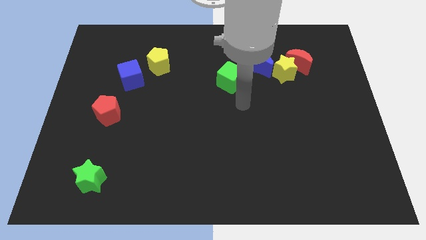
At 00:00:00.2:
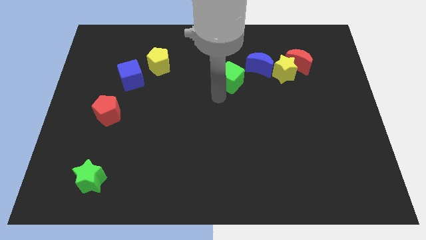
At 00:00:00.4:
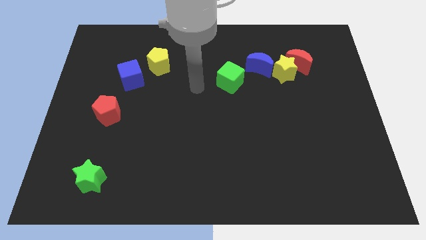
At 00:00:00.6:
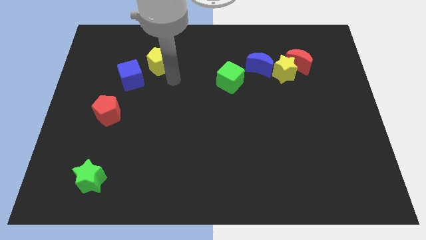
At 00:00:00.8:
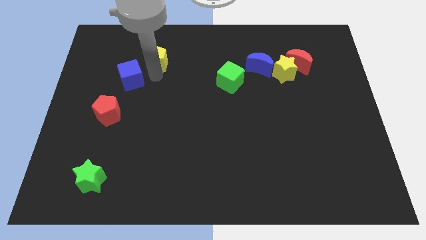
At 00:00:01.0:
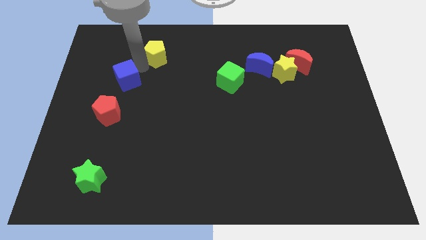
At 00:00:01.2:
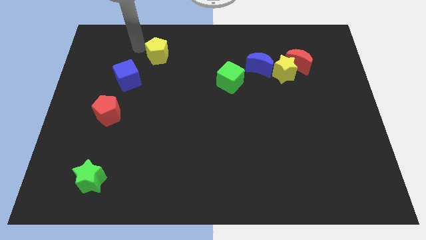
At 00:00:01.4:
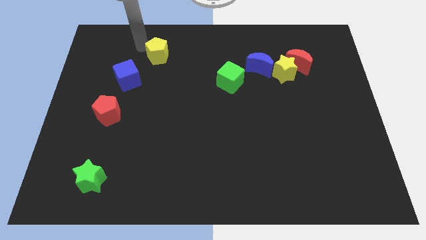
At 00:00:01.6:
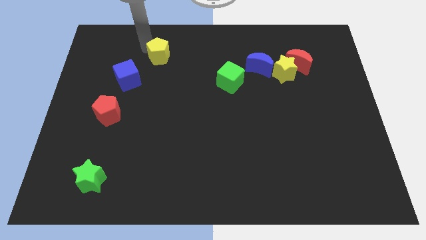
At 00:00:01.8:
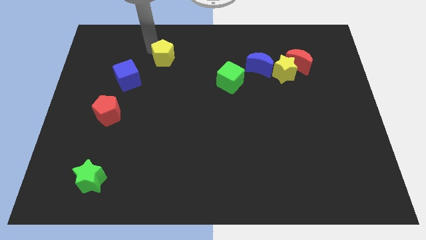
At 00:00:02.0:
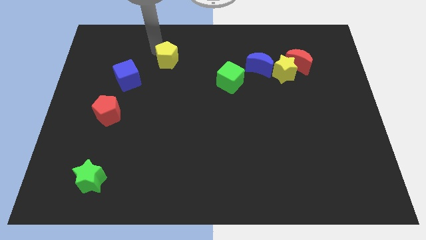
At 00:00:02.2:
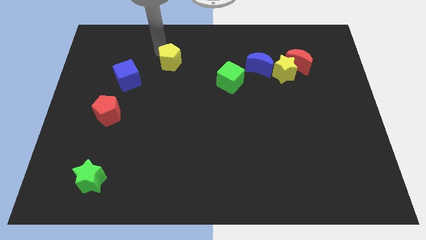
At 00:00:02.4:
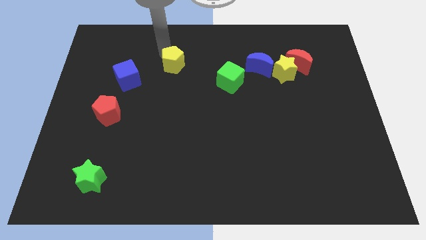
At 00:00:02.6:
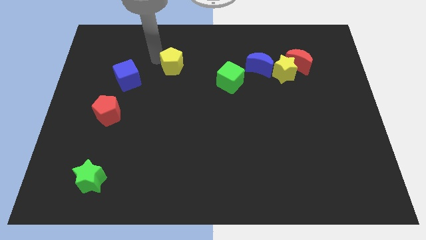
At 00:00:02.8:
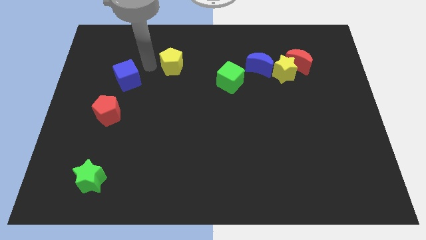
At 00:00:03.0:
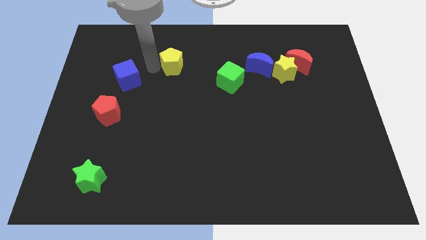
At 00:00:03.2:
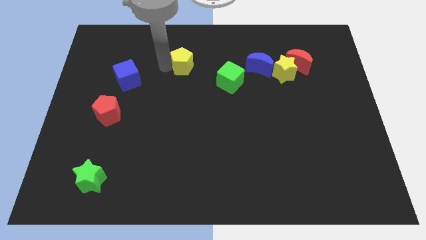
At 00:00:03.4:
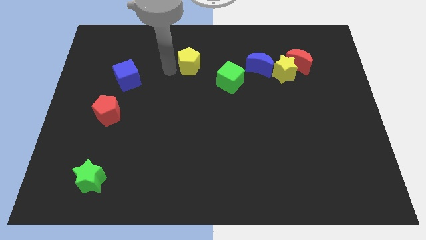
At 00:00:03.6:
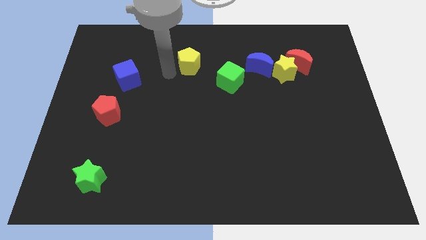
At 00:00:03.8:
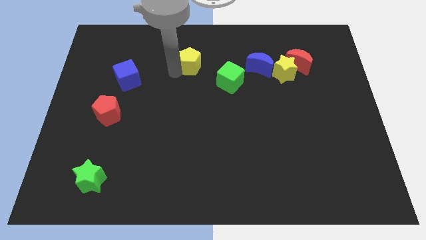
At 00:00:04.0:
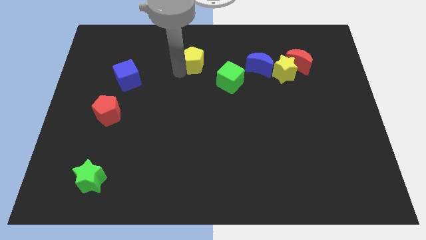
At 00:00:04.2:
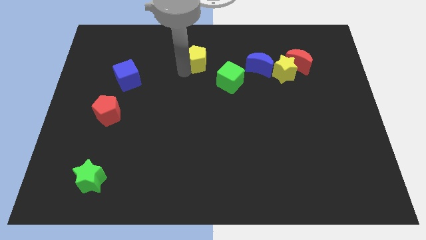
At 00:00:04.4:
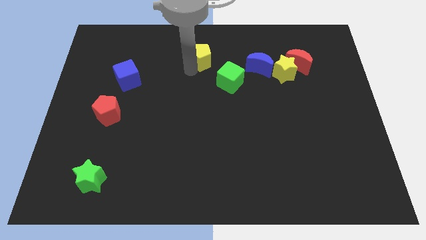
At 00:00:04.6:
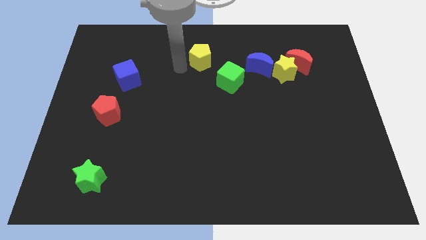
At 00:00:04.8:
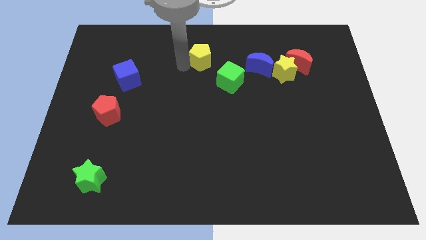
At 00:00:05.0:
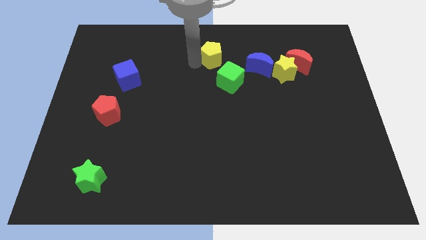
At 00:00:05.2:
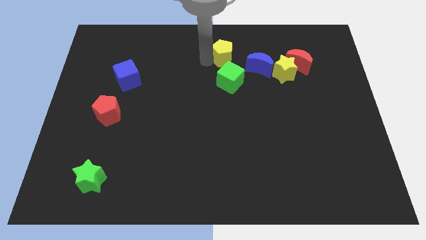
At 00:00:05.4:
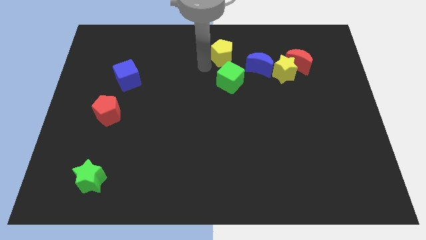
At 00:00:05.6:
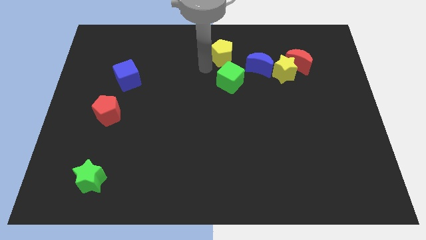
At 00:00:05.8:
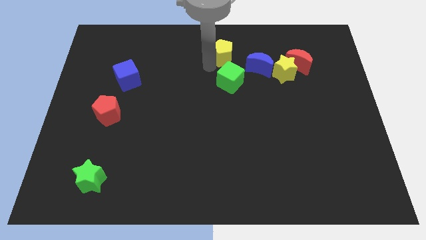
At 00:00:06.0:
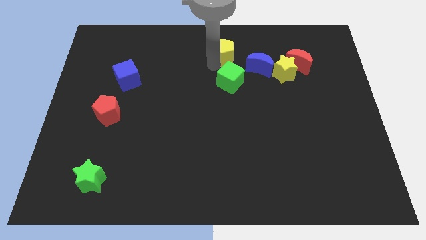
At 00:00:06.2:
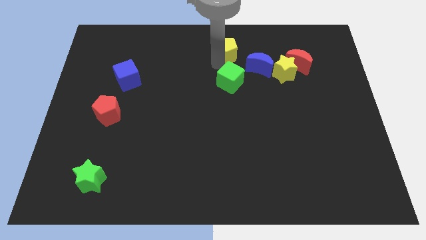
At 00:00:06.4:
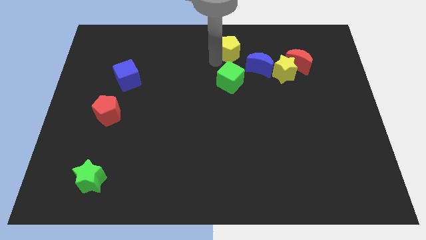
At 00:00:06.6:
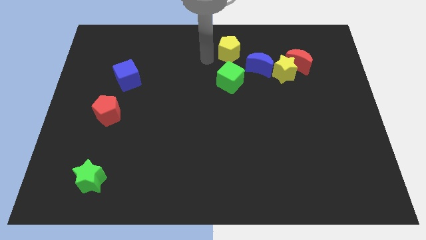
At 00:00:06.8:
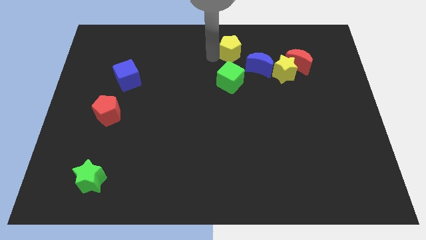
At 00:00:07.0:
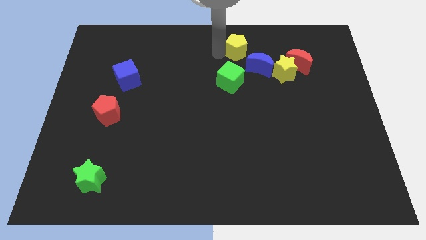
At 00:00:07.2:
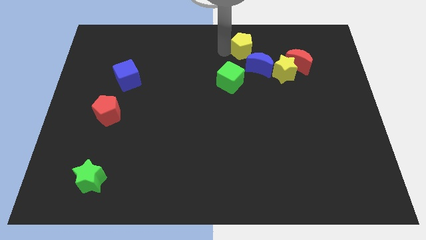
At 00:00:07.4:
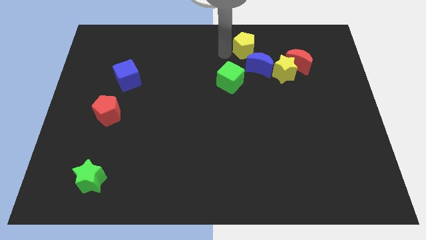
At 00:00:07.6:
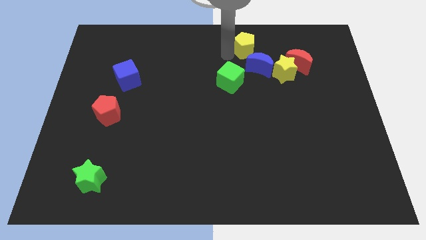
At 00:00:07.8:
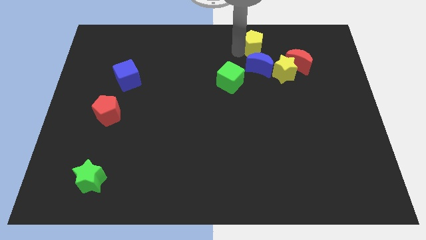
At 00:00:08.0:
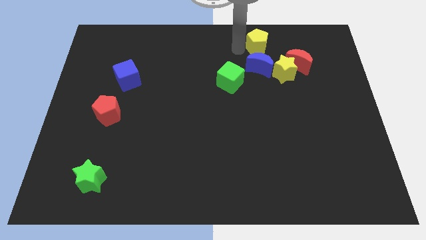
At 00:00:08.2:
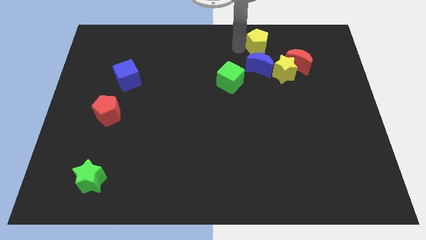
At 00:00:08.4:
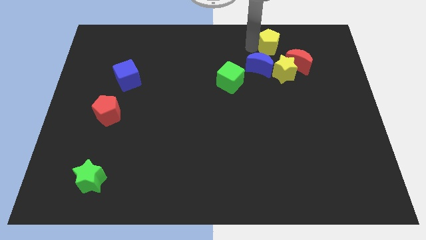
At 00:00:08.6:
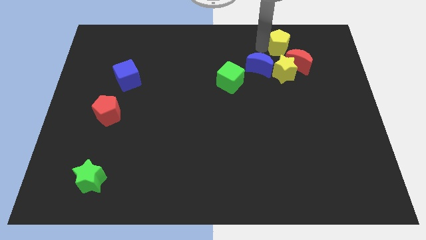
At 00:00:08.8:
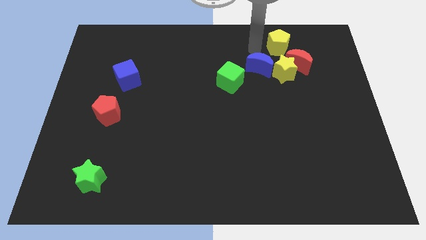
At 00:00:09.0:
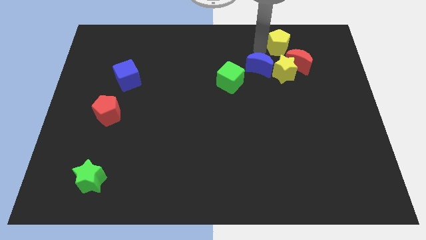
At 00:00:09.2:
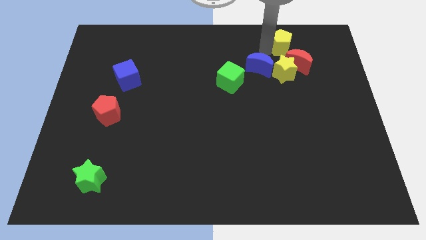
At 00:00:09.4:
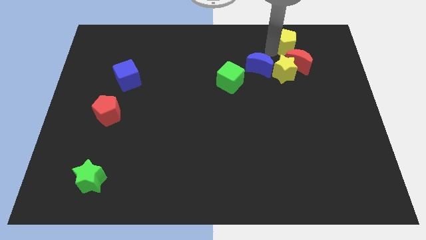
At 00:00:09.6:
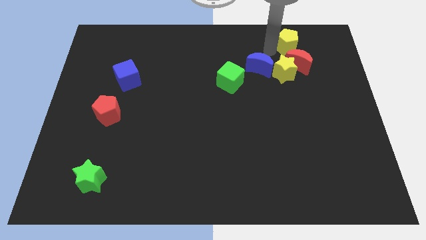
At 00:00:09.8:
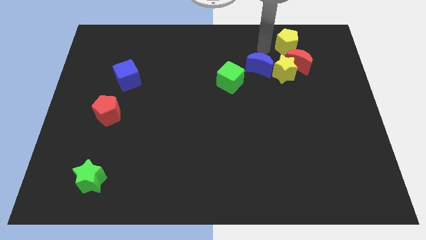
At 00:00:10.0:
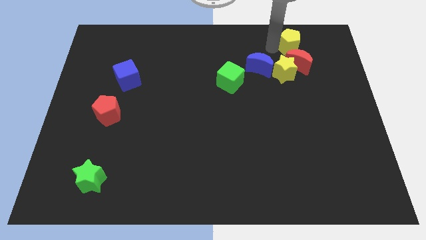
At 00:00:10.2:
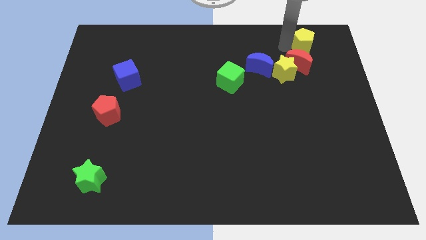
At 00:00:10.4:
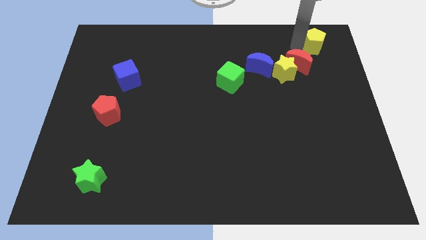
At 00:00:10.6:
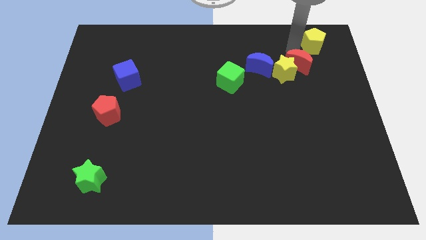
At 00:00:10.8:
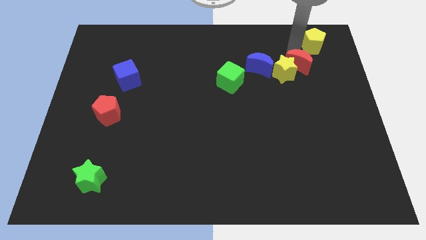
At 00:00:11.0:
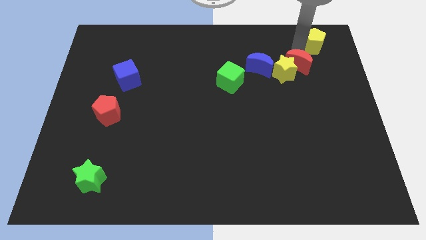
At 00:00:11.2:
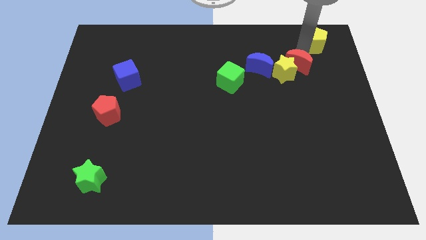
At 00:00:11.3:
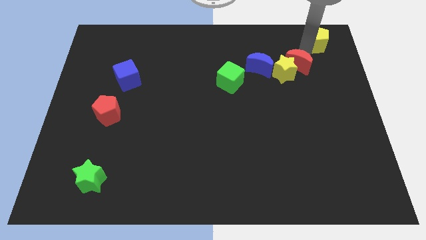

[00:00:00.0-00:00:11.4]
slide the yellow pentagon to the upper right corner
